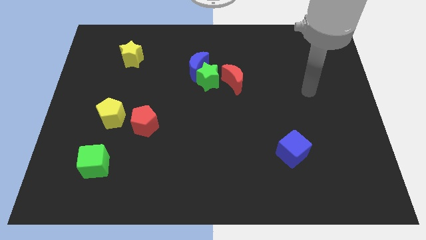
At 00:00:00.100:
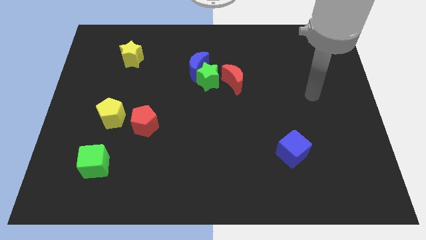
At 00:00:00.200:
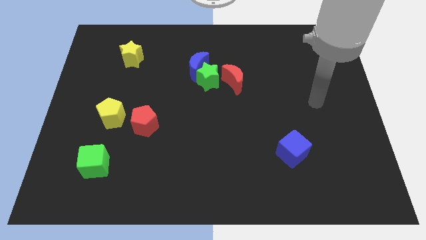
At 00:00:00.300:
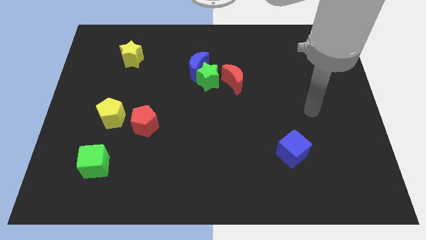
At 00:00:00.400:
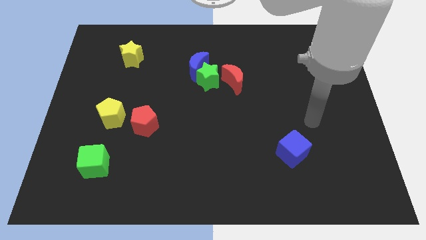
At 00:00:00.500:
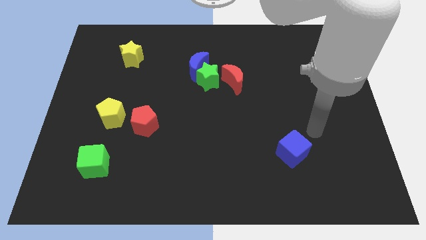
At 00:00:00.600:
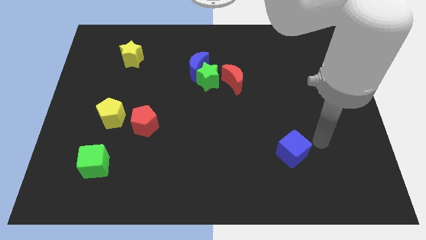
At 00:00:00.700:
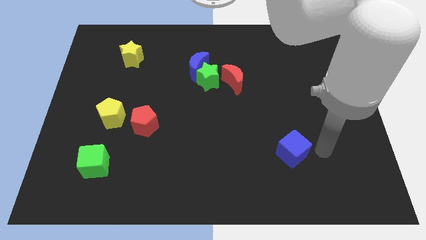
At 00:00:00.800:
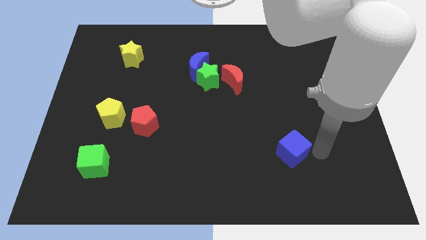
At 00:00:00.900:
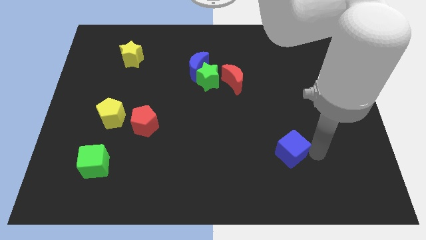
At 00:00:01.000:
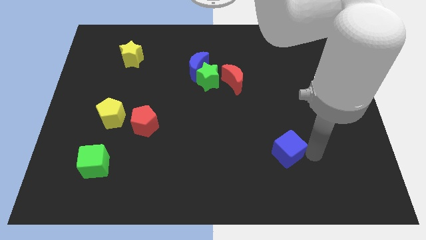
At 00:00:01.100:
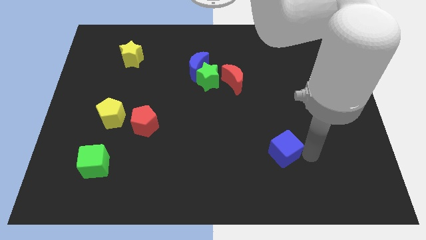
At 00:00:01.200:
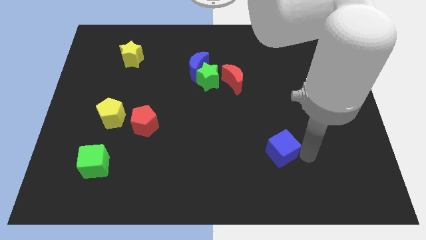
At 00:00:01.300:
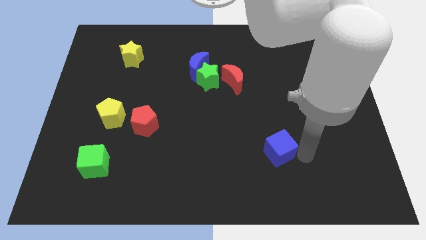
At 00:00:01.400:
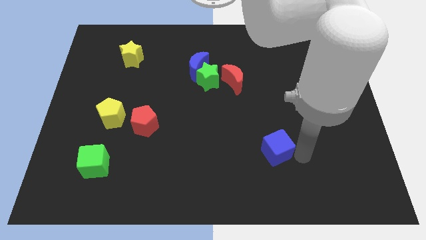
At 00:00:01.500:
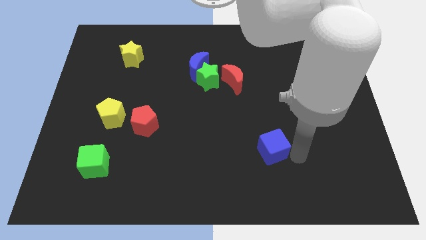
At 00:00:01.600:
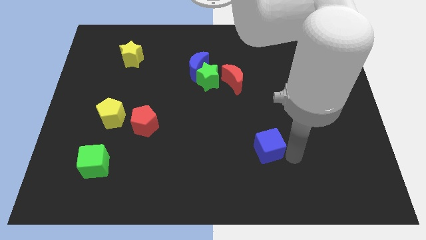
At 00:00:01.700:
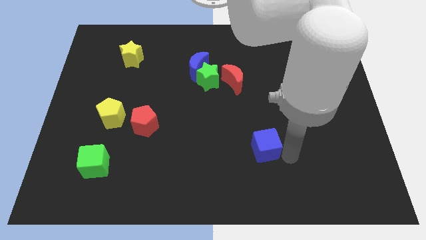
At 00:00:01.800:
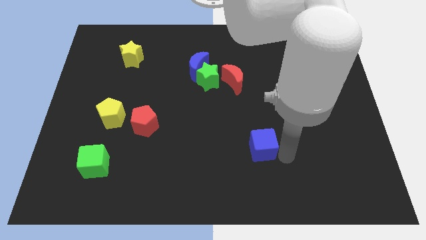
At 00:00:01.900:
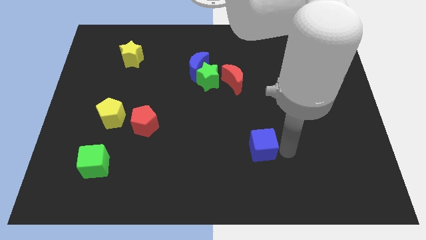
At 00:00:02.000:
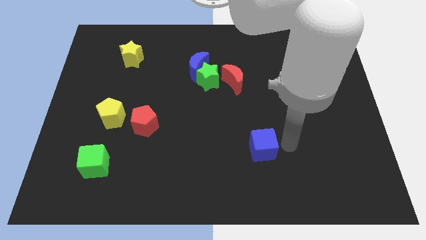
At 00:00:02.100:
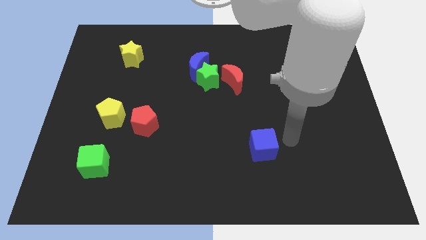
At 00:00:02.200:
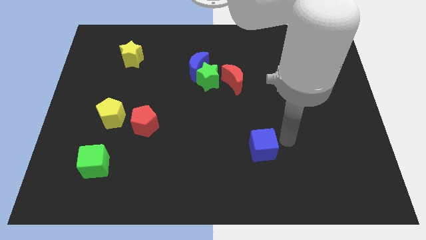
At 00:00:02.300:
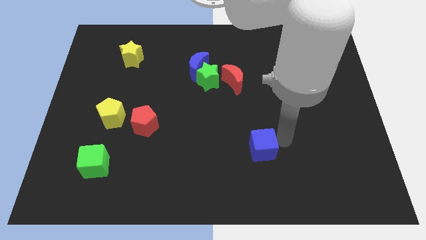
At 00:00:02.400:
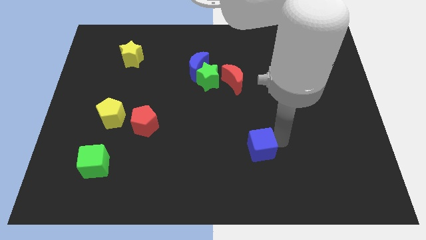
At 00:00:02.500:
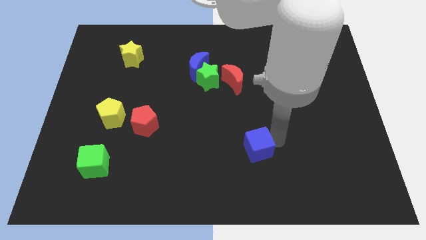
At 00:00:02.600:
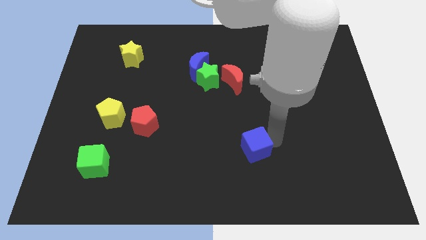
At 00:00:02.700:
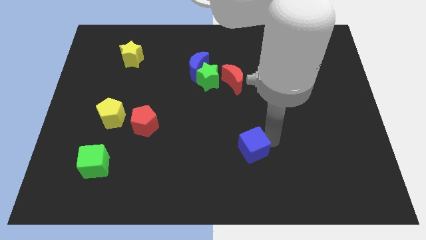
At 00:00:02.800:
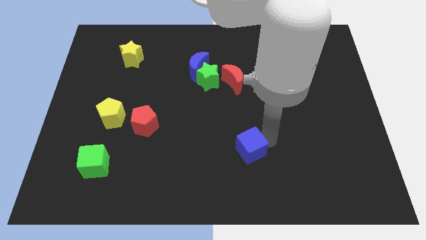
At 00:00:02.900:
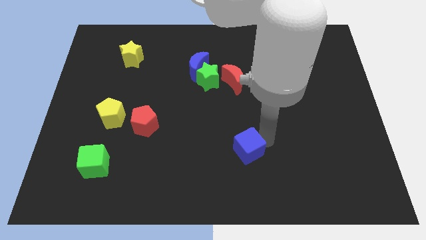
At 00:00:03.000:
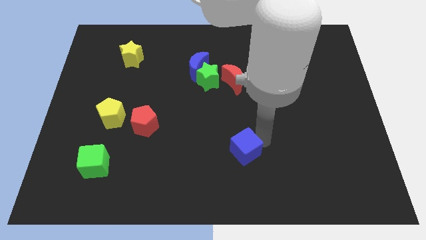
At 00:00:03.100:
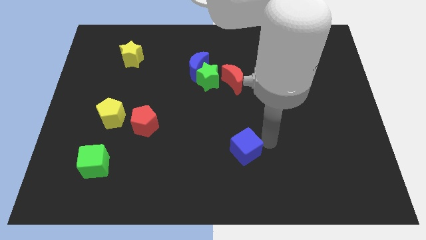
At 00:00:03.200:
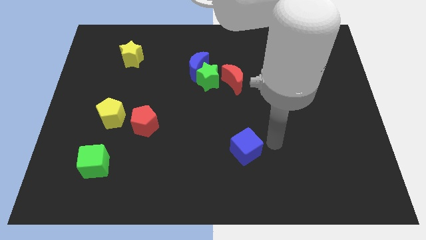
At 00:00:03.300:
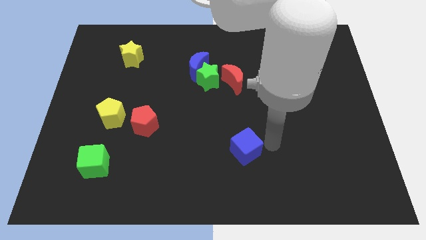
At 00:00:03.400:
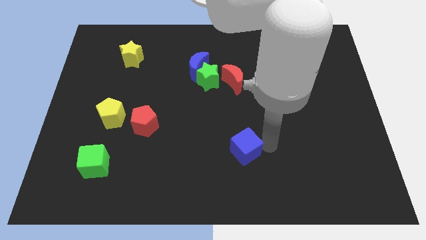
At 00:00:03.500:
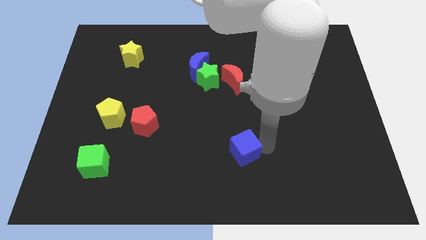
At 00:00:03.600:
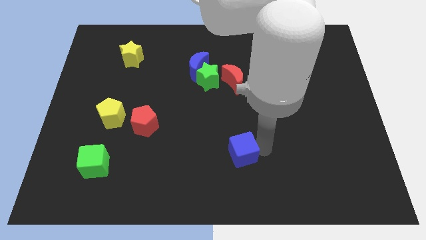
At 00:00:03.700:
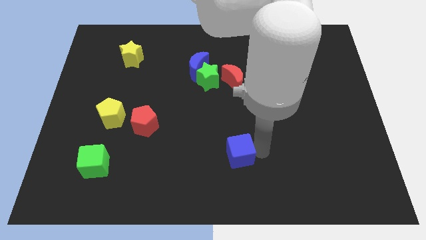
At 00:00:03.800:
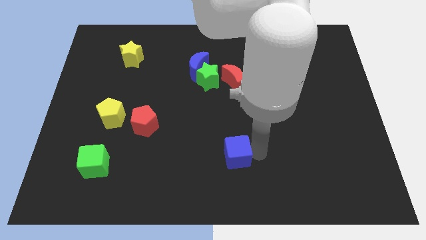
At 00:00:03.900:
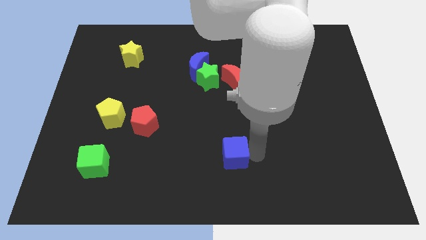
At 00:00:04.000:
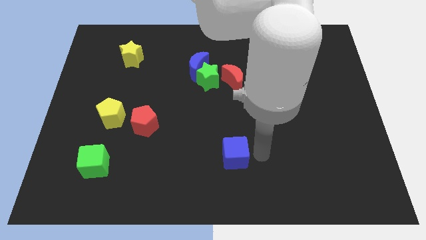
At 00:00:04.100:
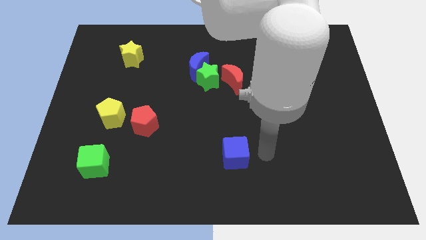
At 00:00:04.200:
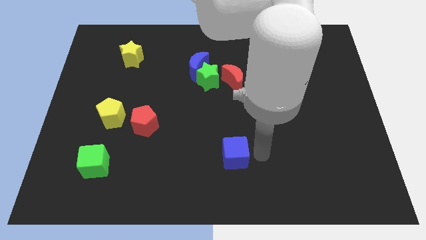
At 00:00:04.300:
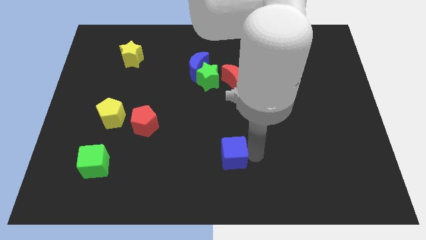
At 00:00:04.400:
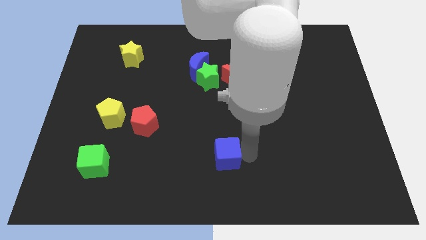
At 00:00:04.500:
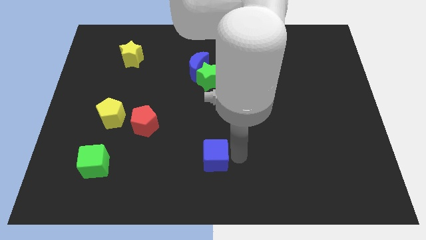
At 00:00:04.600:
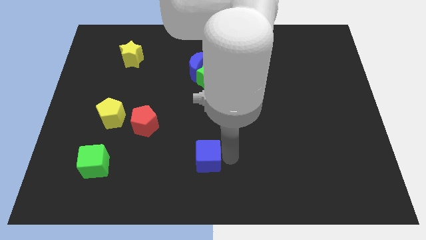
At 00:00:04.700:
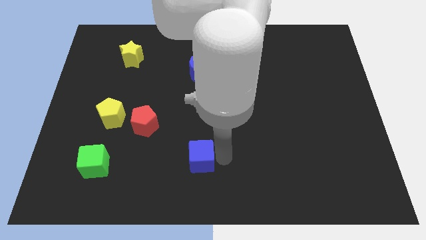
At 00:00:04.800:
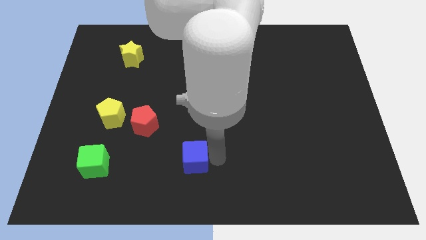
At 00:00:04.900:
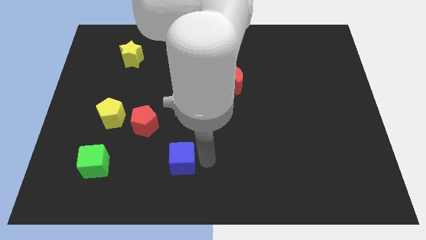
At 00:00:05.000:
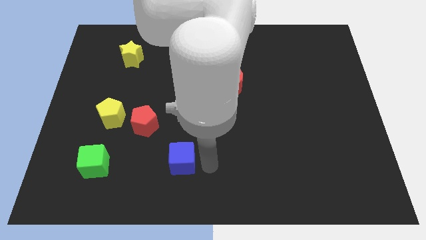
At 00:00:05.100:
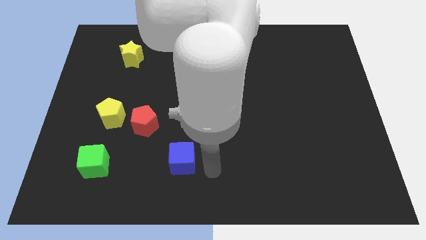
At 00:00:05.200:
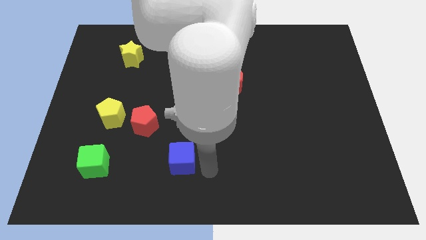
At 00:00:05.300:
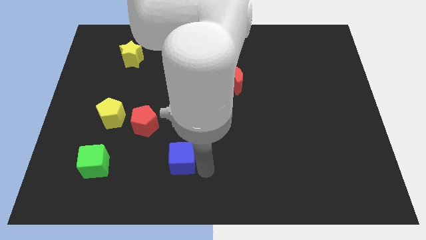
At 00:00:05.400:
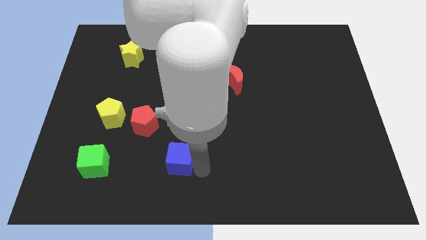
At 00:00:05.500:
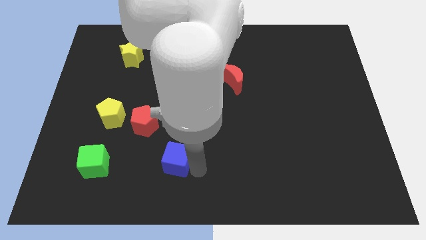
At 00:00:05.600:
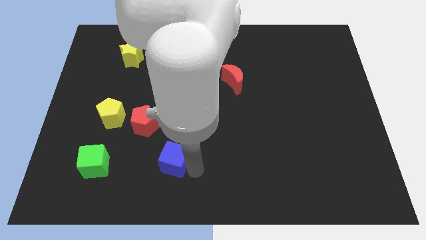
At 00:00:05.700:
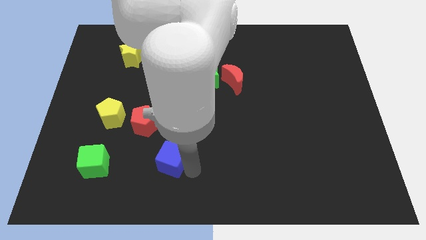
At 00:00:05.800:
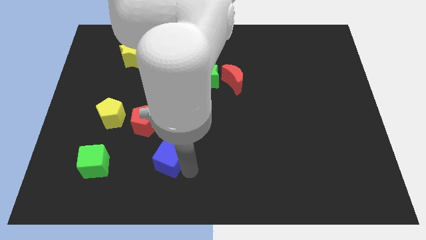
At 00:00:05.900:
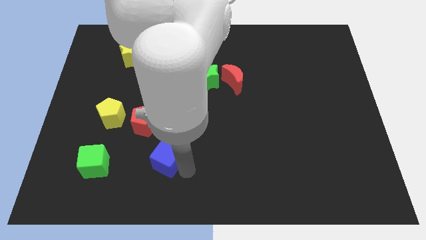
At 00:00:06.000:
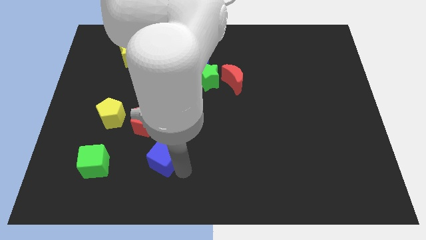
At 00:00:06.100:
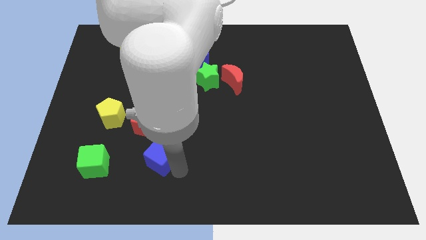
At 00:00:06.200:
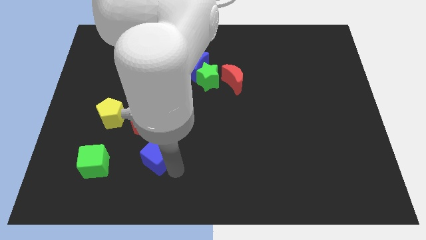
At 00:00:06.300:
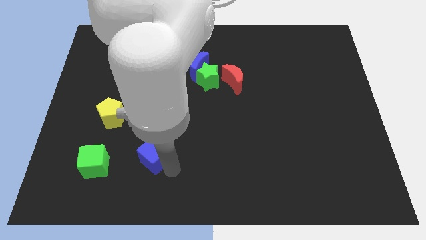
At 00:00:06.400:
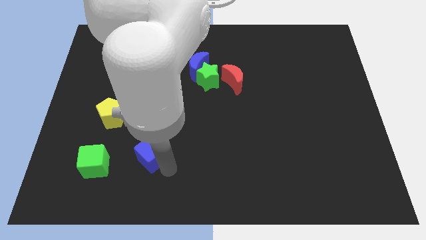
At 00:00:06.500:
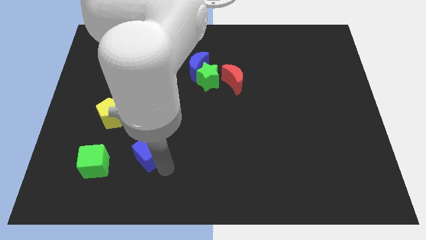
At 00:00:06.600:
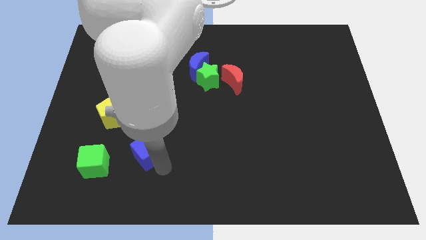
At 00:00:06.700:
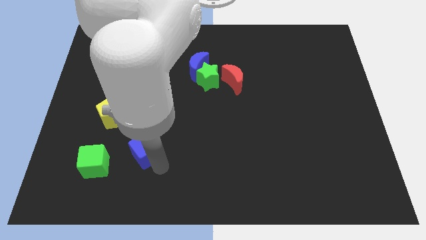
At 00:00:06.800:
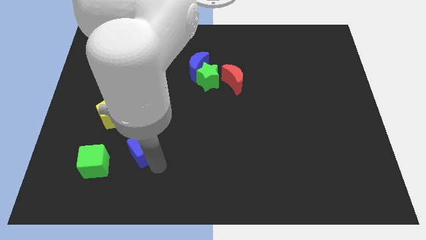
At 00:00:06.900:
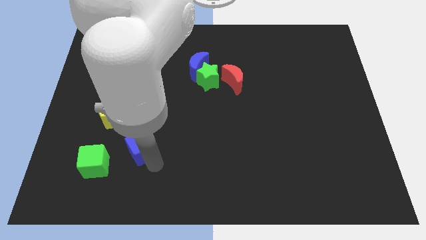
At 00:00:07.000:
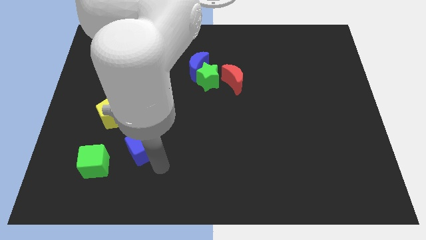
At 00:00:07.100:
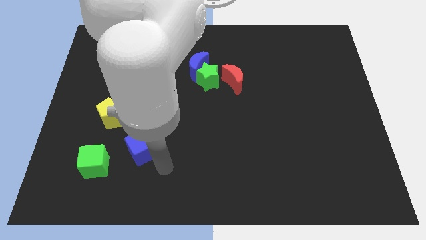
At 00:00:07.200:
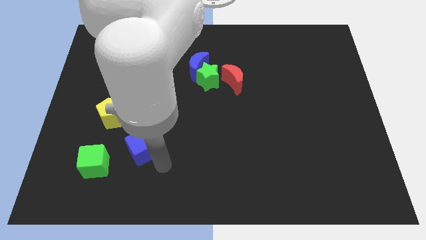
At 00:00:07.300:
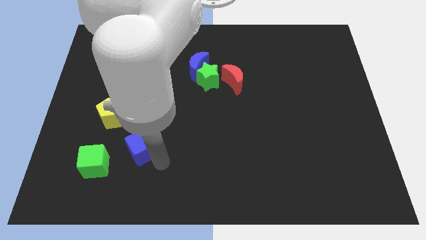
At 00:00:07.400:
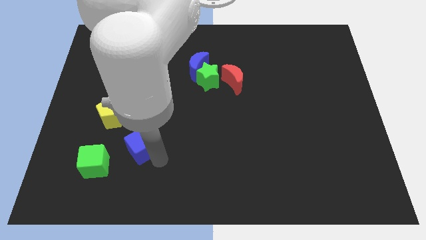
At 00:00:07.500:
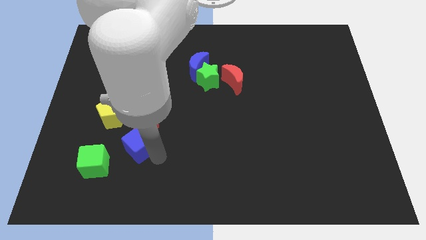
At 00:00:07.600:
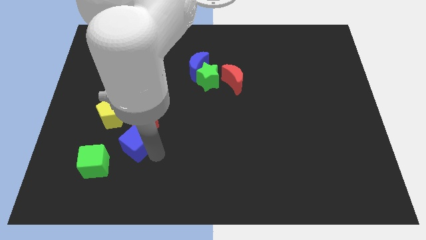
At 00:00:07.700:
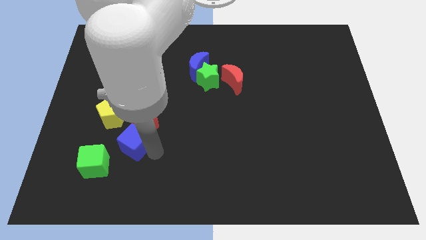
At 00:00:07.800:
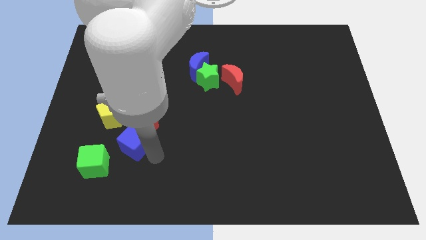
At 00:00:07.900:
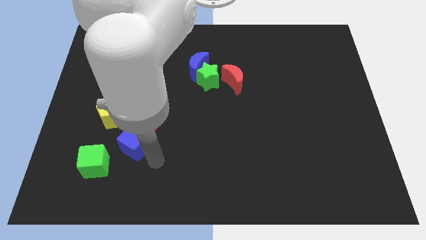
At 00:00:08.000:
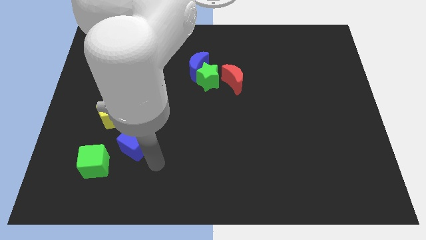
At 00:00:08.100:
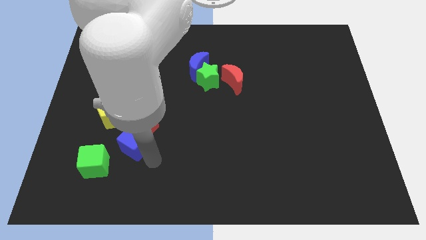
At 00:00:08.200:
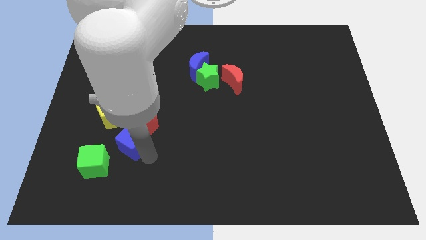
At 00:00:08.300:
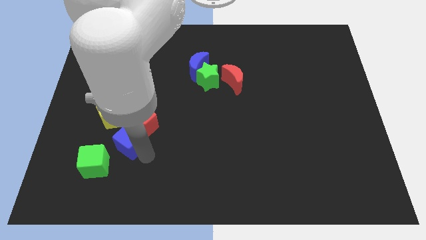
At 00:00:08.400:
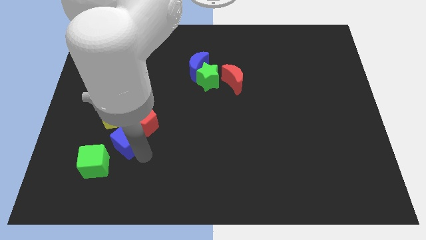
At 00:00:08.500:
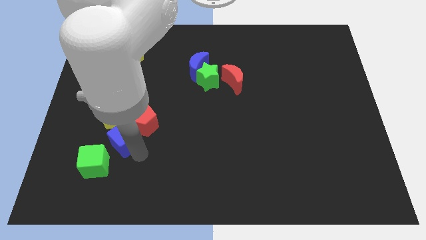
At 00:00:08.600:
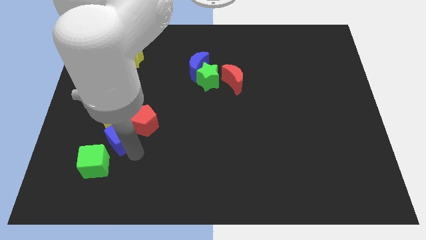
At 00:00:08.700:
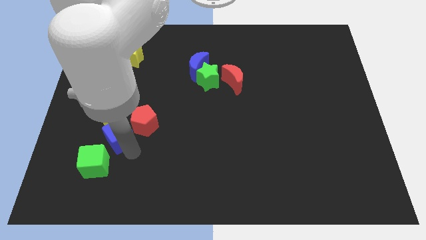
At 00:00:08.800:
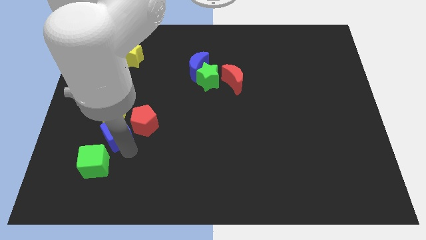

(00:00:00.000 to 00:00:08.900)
move the blue cube next to the yellow pentagon
